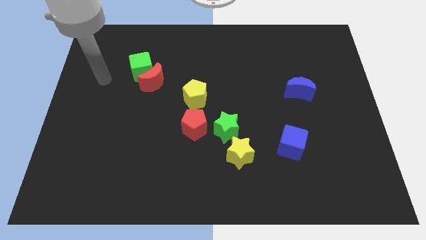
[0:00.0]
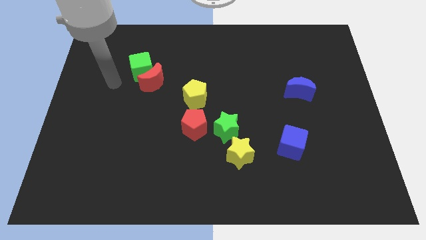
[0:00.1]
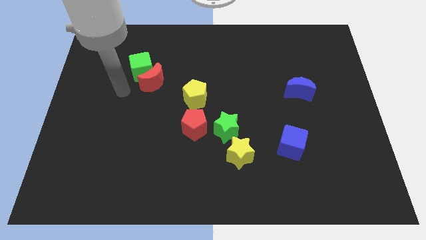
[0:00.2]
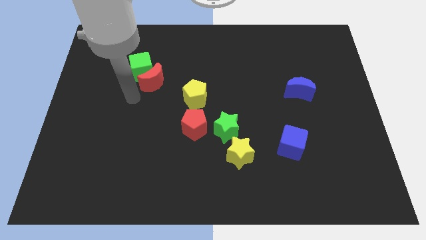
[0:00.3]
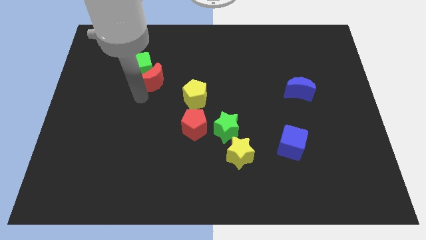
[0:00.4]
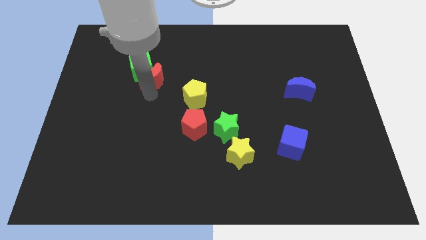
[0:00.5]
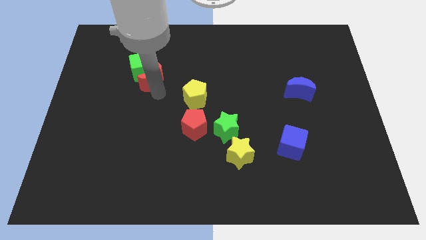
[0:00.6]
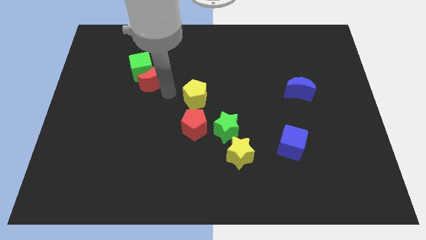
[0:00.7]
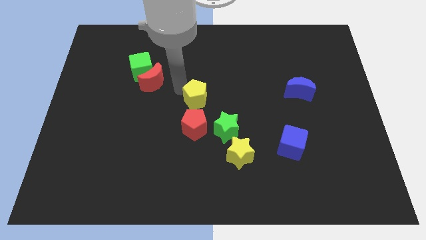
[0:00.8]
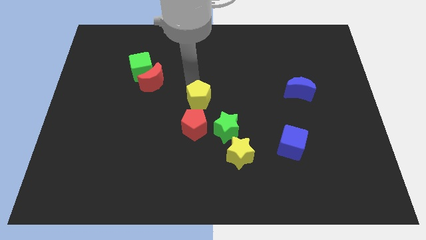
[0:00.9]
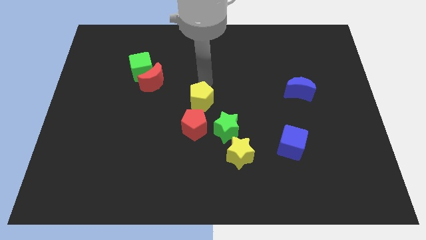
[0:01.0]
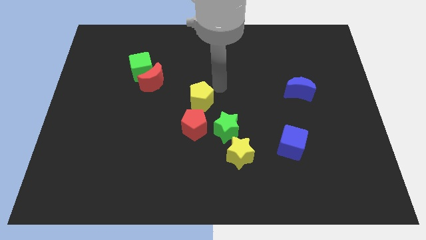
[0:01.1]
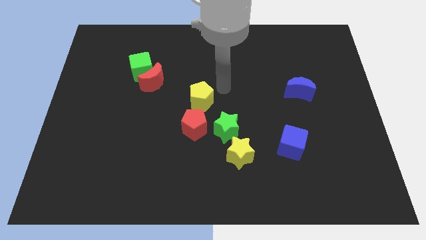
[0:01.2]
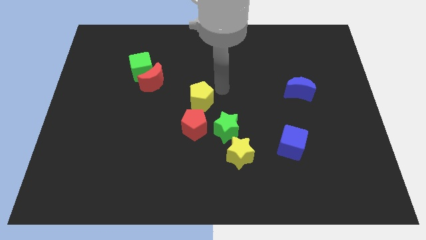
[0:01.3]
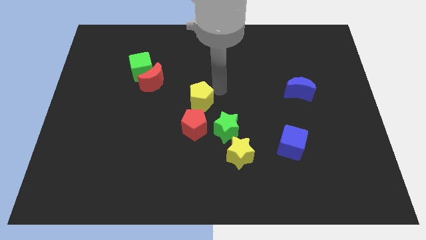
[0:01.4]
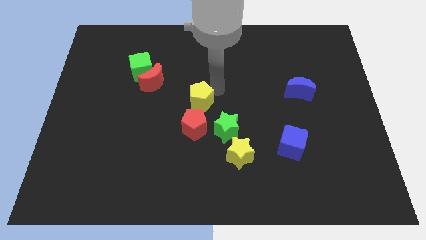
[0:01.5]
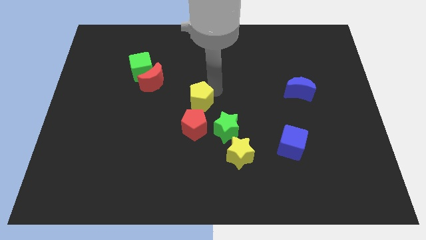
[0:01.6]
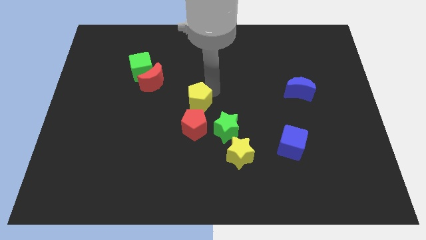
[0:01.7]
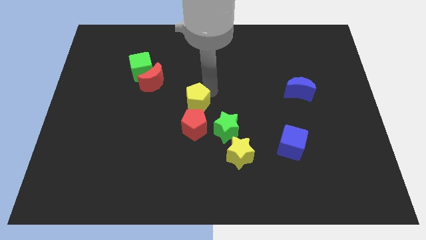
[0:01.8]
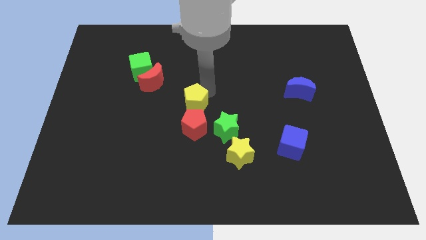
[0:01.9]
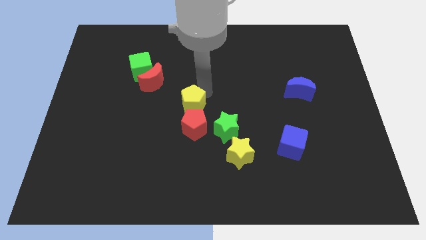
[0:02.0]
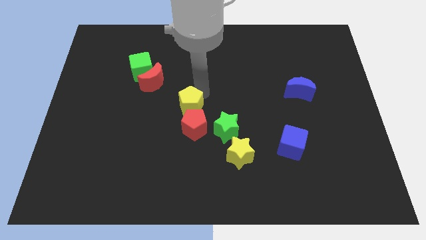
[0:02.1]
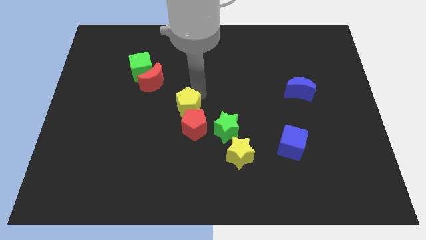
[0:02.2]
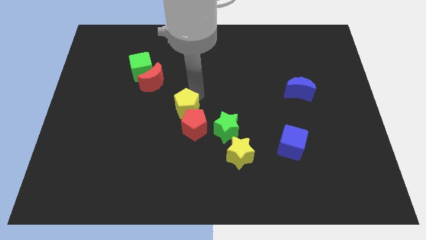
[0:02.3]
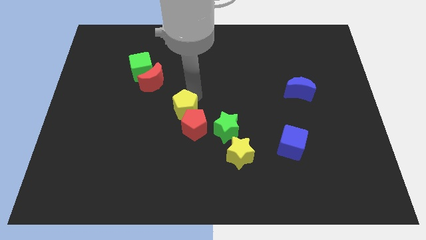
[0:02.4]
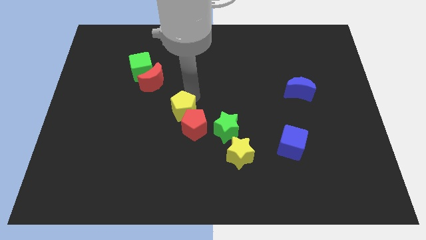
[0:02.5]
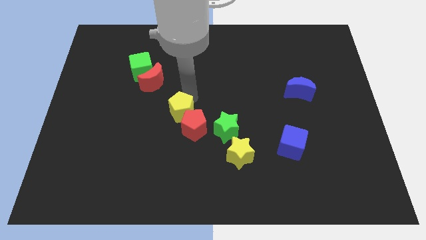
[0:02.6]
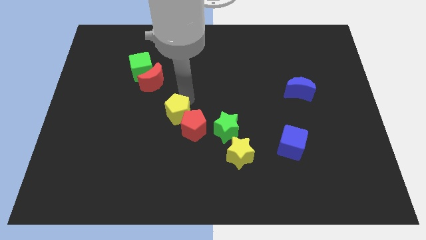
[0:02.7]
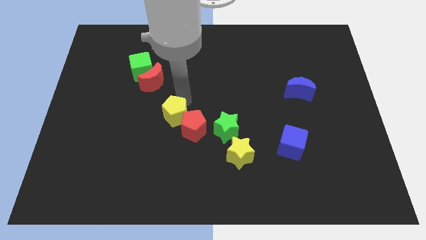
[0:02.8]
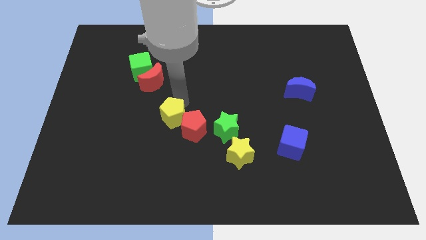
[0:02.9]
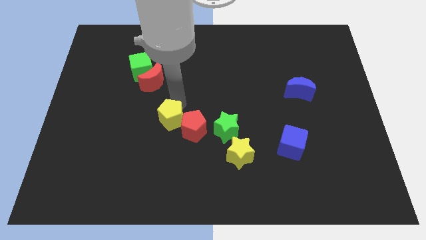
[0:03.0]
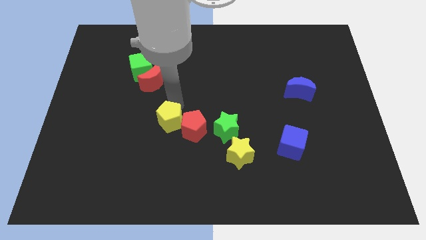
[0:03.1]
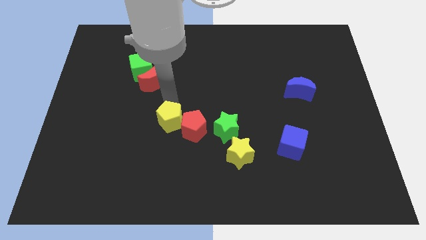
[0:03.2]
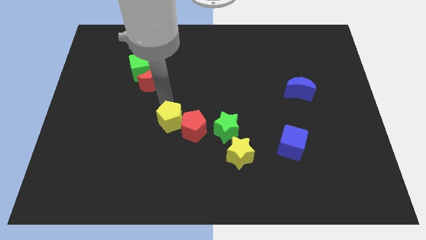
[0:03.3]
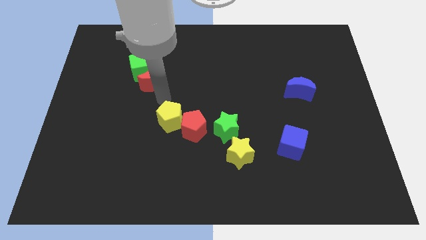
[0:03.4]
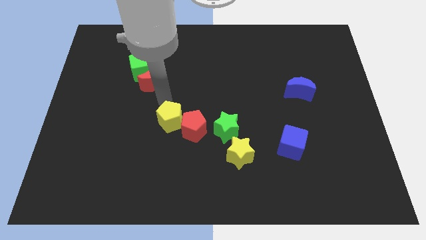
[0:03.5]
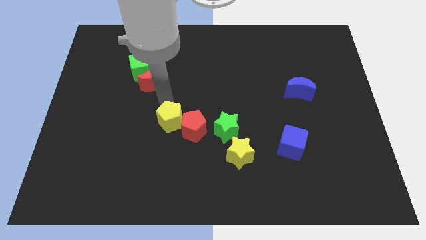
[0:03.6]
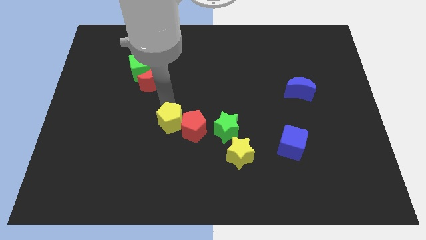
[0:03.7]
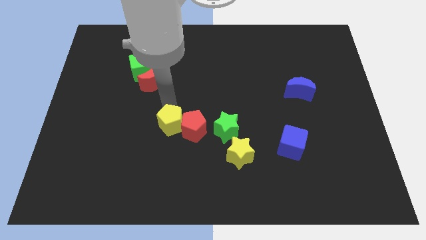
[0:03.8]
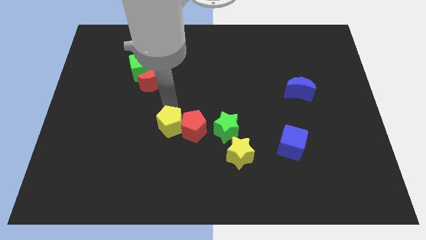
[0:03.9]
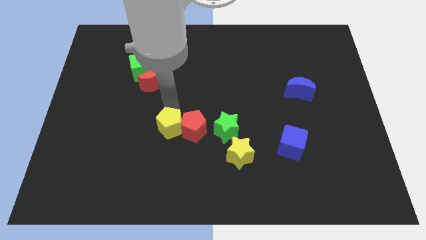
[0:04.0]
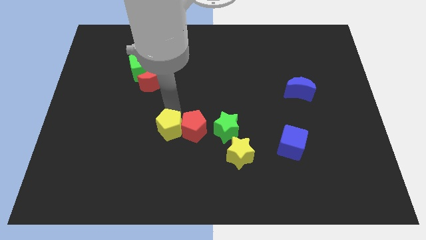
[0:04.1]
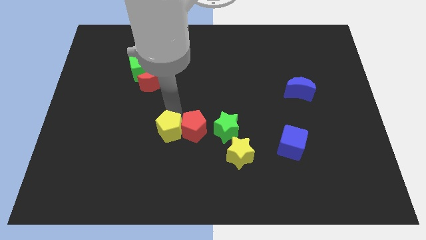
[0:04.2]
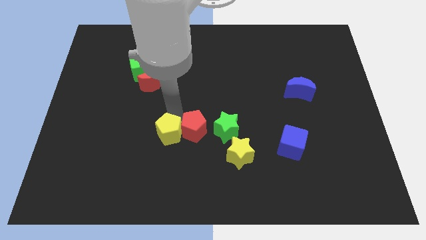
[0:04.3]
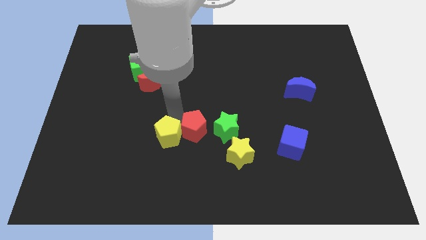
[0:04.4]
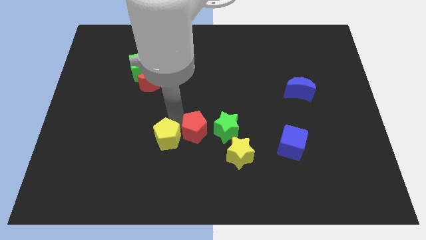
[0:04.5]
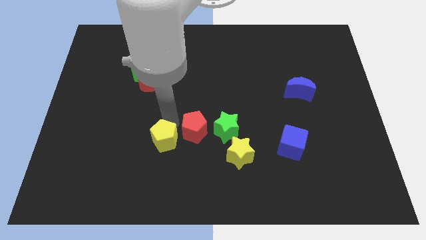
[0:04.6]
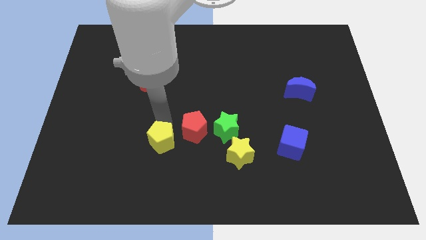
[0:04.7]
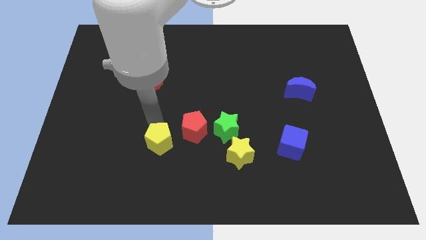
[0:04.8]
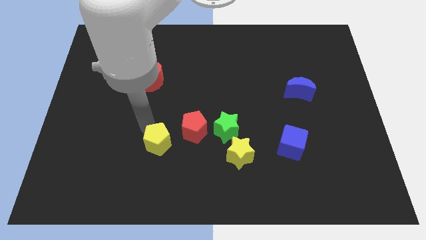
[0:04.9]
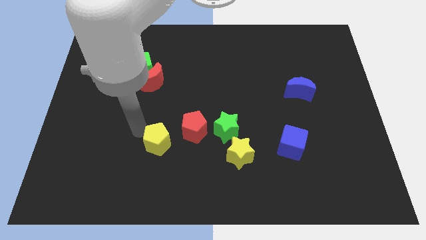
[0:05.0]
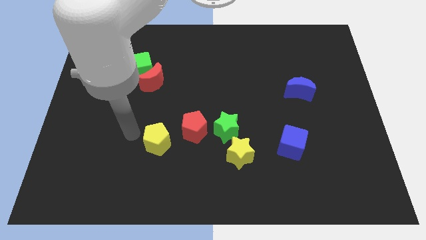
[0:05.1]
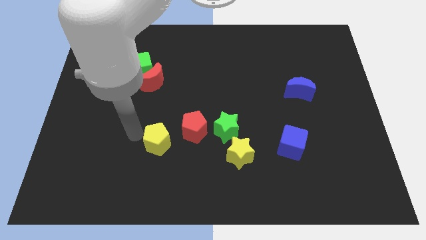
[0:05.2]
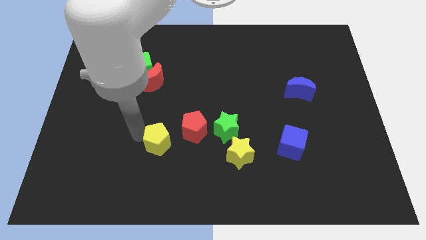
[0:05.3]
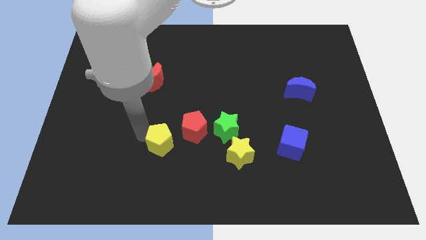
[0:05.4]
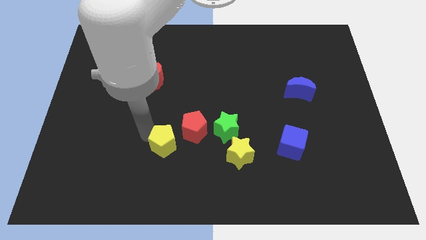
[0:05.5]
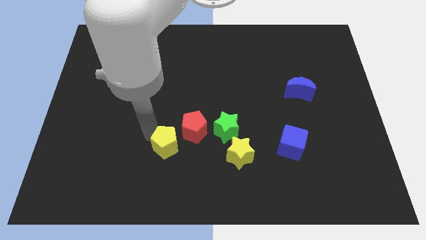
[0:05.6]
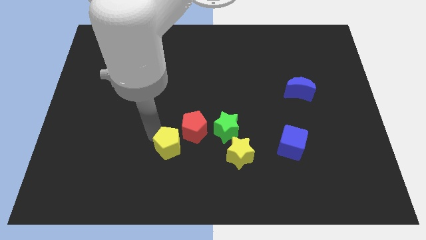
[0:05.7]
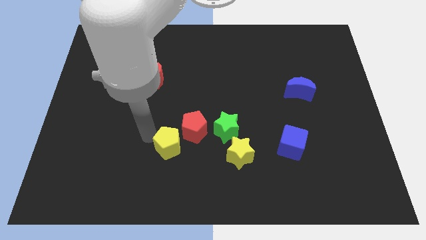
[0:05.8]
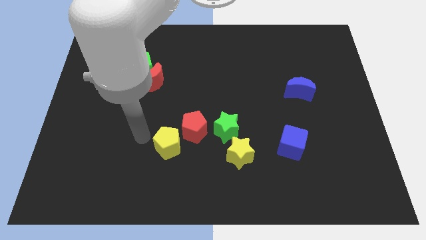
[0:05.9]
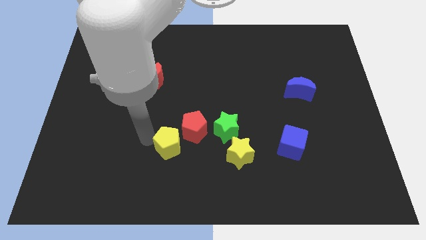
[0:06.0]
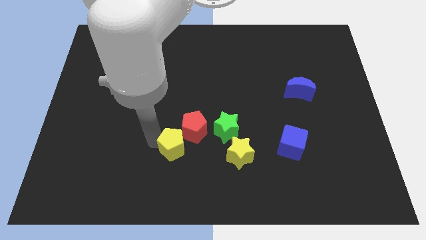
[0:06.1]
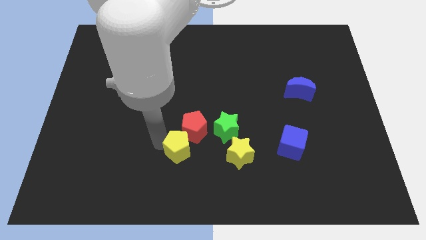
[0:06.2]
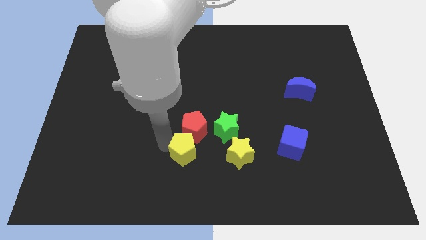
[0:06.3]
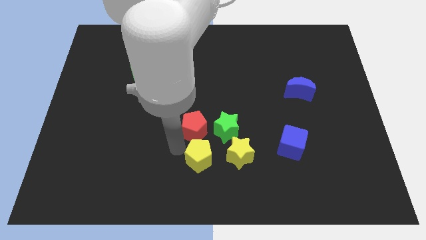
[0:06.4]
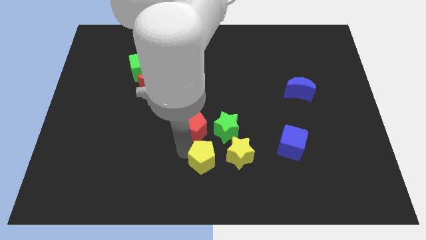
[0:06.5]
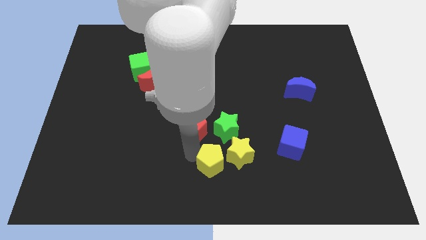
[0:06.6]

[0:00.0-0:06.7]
slide the yellow pentagon to the bottom of the green star

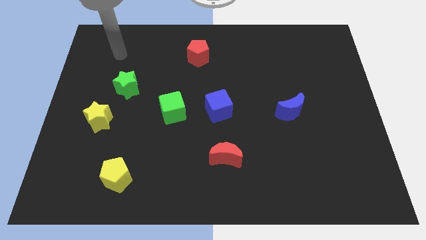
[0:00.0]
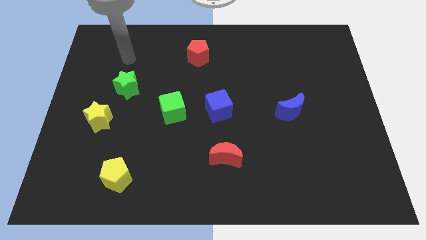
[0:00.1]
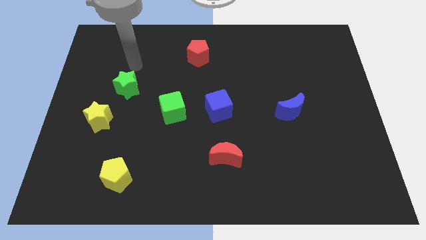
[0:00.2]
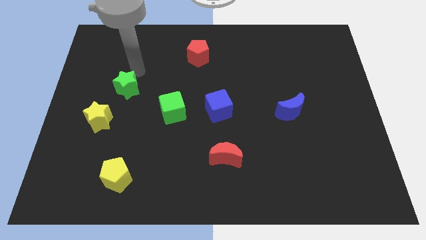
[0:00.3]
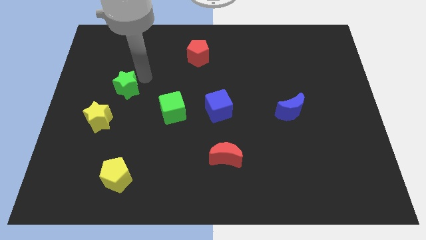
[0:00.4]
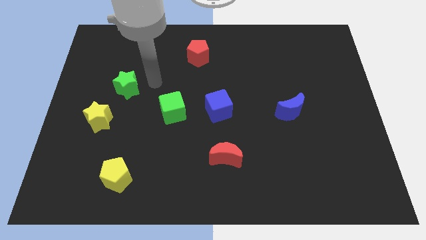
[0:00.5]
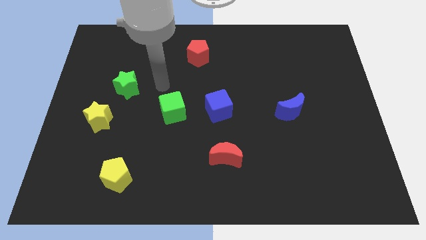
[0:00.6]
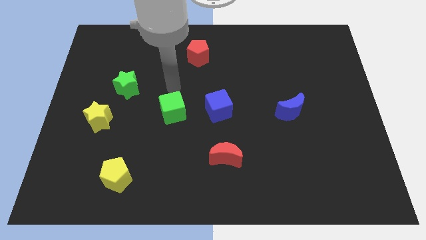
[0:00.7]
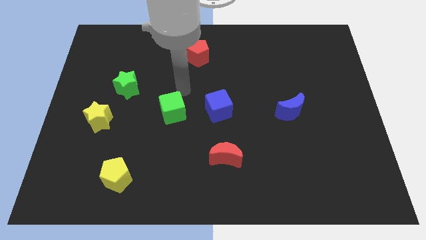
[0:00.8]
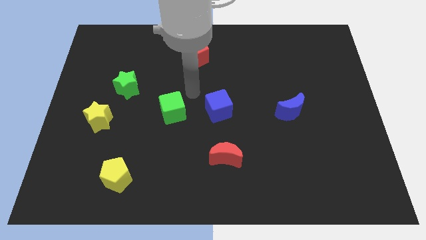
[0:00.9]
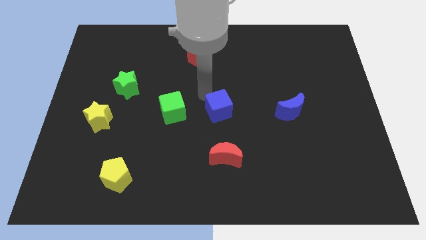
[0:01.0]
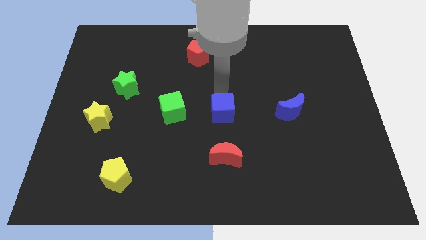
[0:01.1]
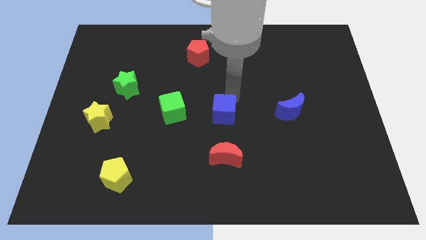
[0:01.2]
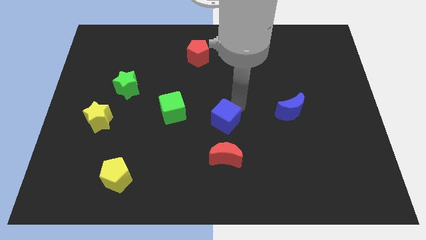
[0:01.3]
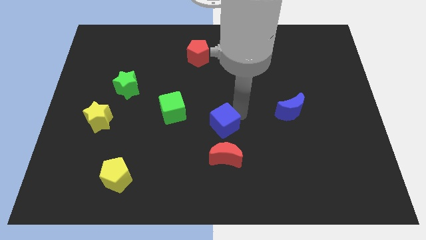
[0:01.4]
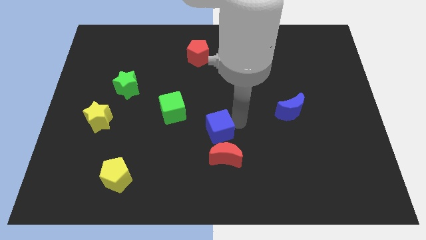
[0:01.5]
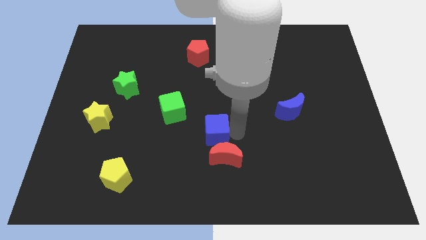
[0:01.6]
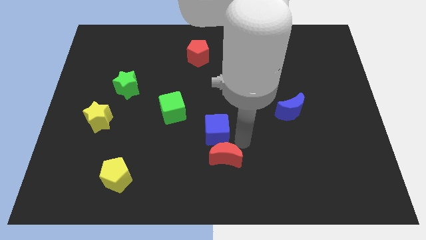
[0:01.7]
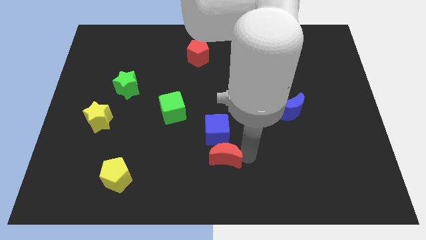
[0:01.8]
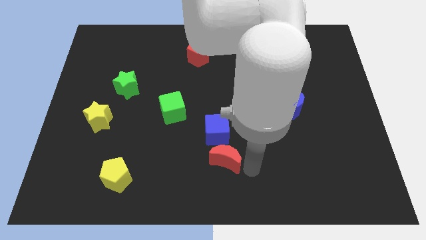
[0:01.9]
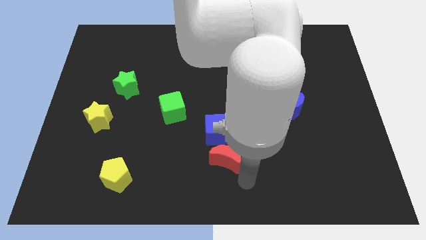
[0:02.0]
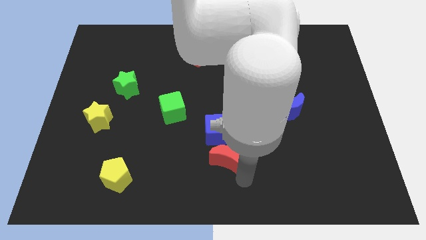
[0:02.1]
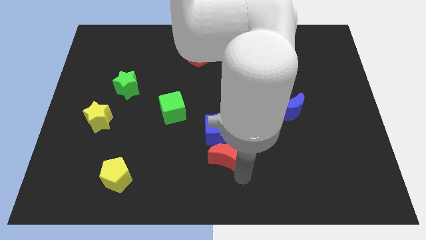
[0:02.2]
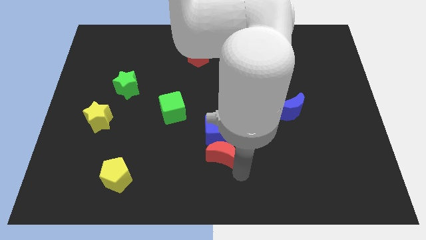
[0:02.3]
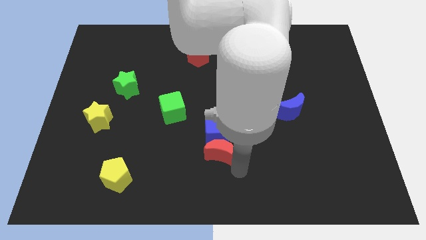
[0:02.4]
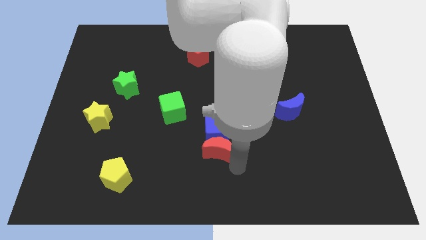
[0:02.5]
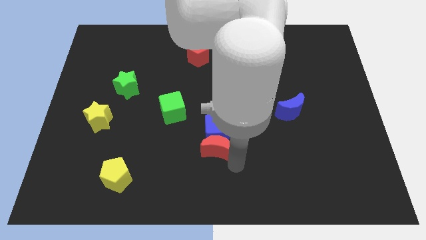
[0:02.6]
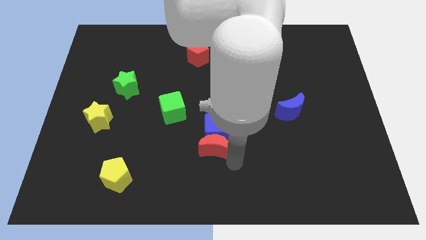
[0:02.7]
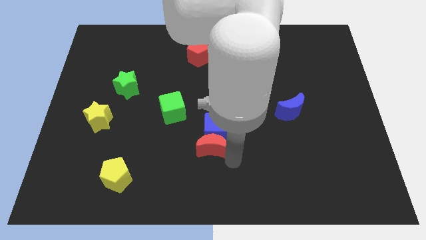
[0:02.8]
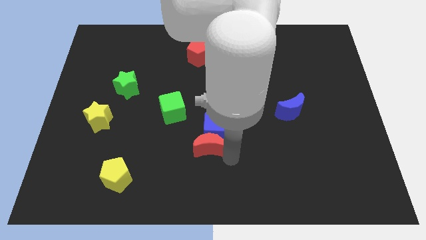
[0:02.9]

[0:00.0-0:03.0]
push the red moon to the bottom right of the green cube
